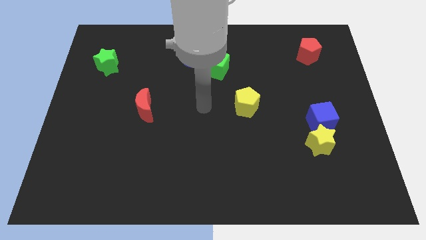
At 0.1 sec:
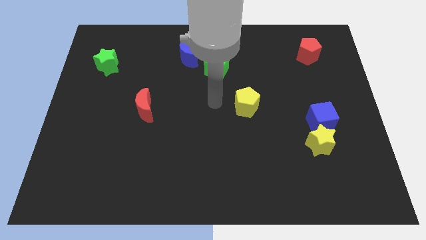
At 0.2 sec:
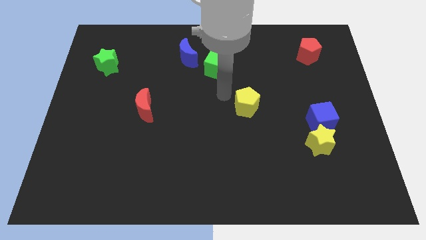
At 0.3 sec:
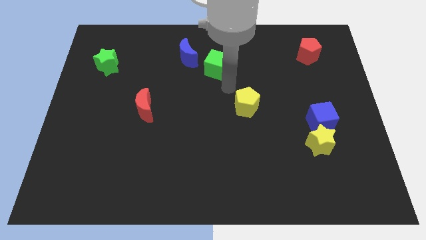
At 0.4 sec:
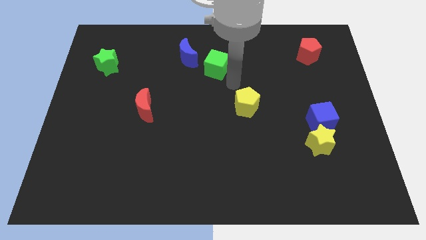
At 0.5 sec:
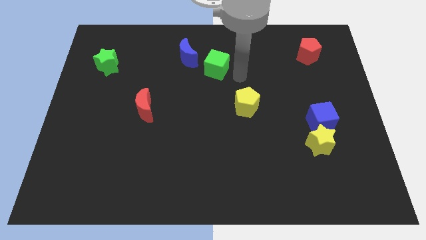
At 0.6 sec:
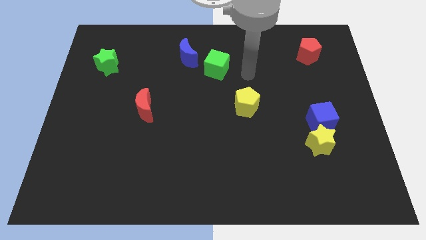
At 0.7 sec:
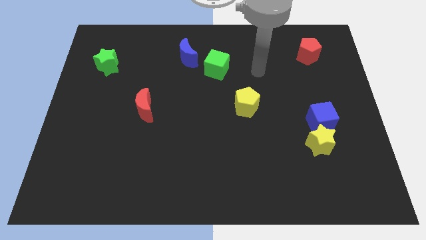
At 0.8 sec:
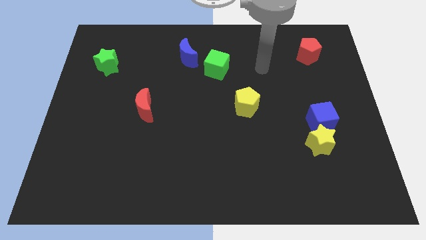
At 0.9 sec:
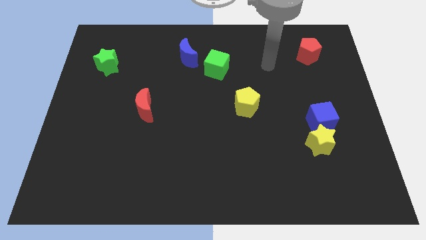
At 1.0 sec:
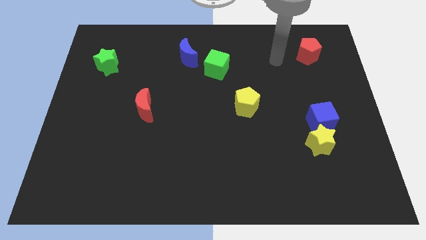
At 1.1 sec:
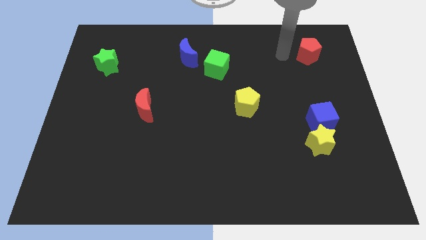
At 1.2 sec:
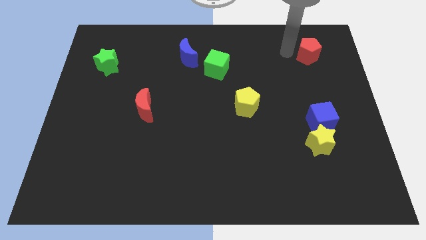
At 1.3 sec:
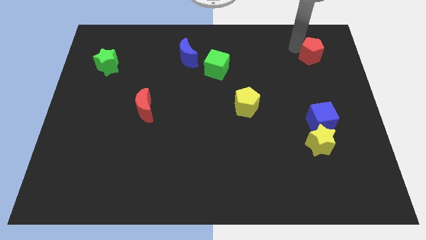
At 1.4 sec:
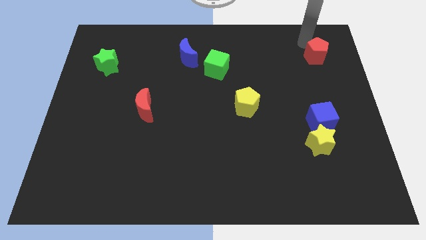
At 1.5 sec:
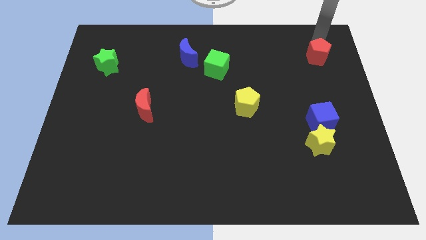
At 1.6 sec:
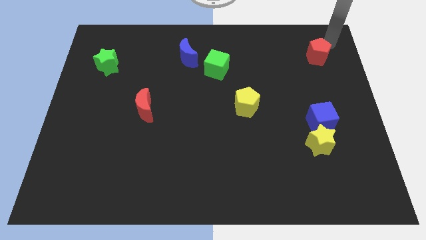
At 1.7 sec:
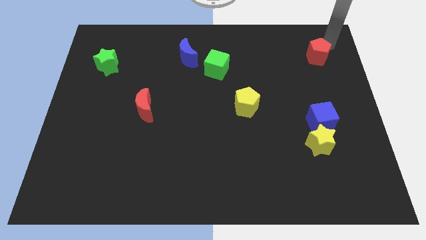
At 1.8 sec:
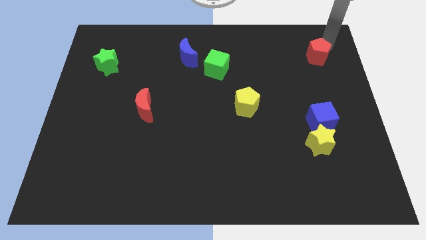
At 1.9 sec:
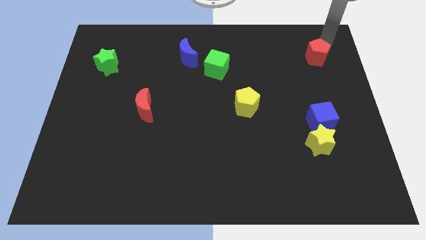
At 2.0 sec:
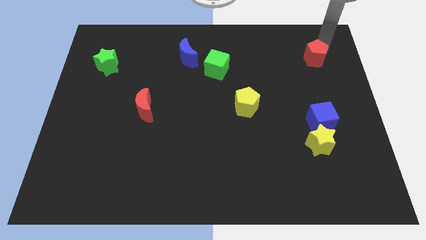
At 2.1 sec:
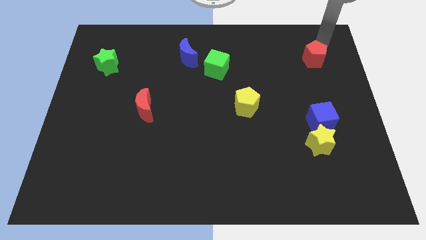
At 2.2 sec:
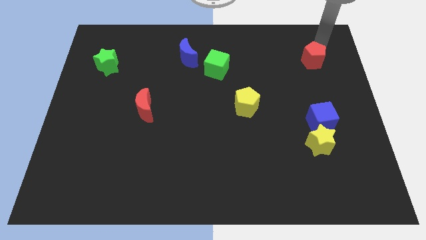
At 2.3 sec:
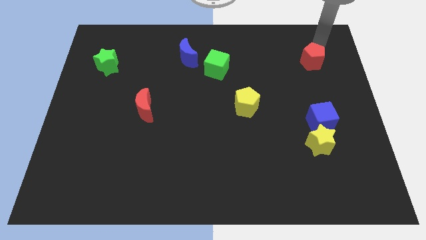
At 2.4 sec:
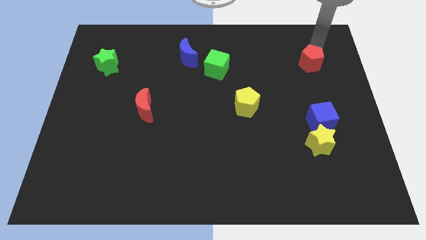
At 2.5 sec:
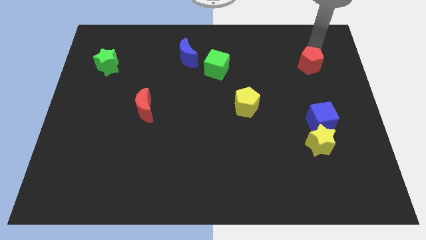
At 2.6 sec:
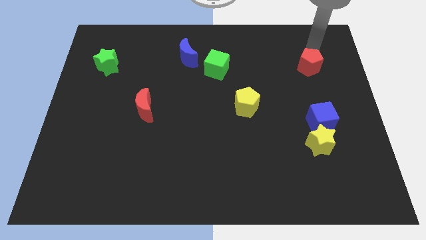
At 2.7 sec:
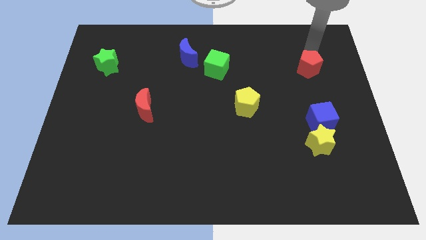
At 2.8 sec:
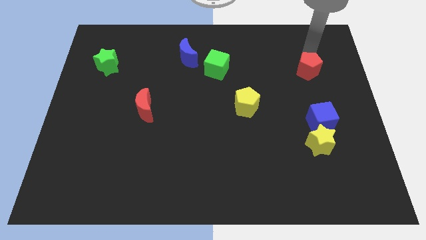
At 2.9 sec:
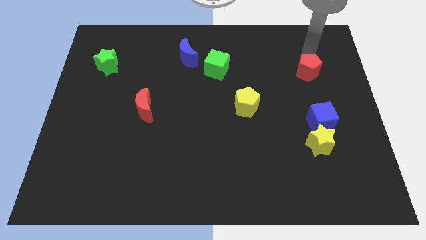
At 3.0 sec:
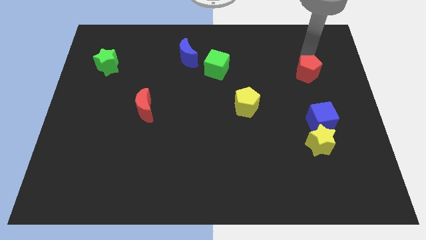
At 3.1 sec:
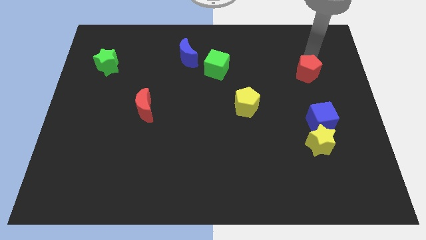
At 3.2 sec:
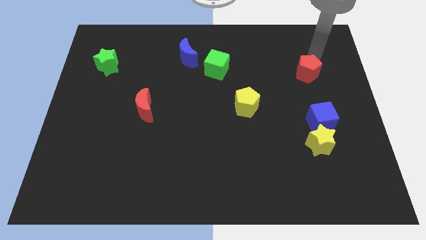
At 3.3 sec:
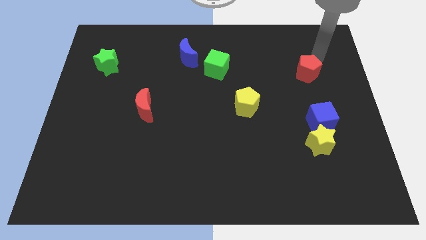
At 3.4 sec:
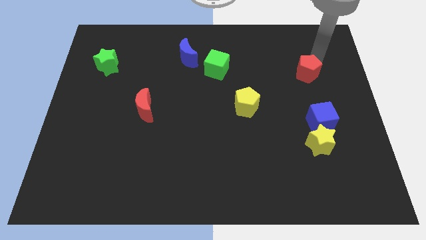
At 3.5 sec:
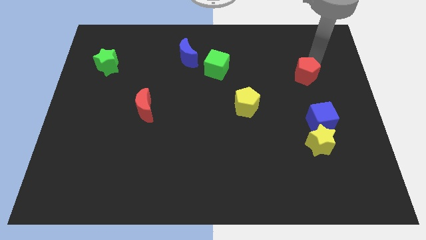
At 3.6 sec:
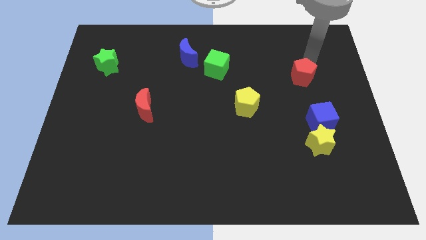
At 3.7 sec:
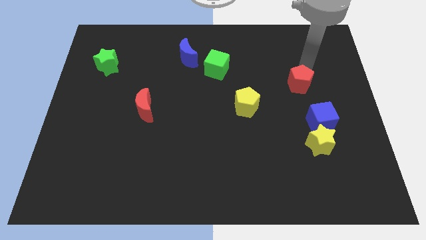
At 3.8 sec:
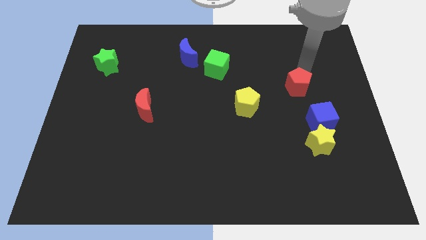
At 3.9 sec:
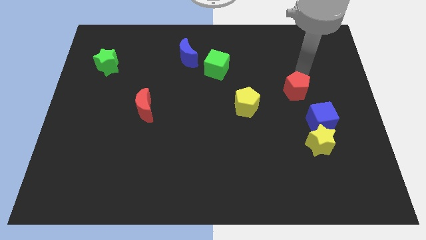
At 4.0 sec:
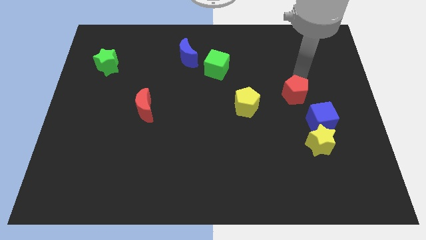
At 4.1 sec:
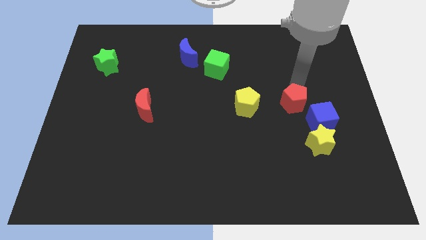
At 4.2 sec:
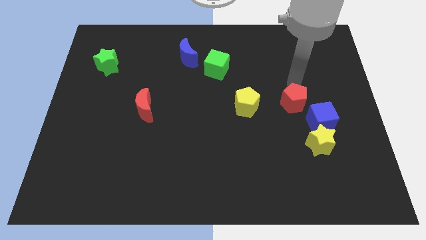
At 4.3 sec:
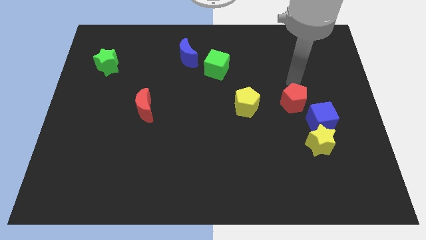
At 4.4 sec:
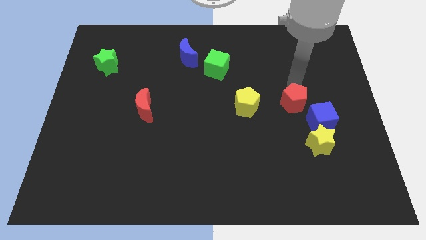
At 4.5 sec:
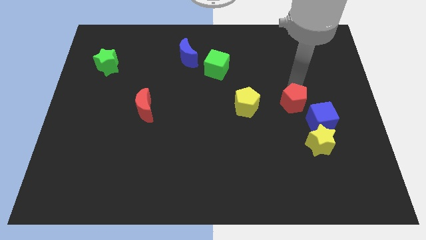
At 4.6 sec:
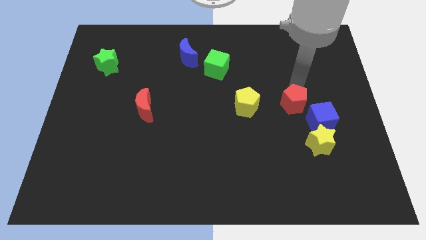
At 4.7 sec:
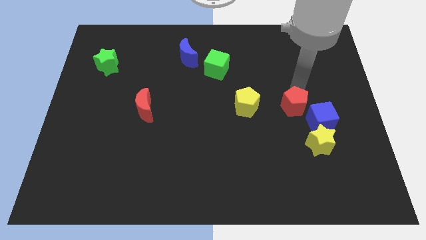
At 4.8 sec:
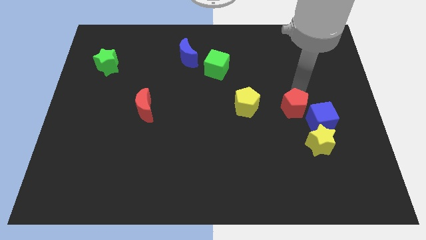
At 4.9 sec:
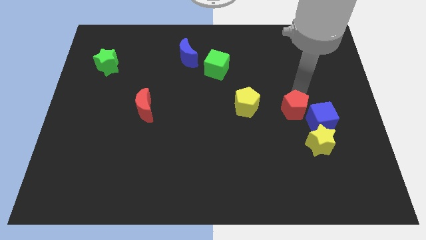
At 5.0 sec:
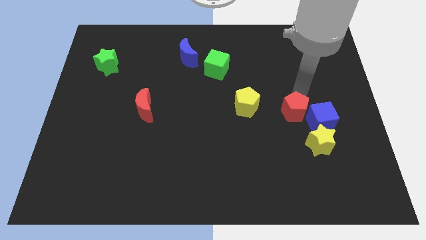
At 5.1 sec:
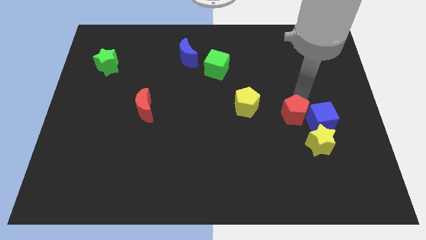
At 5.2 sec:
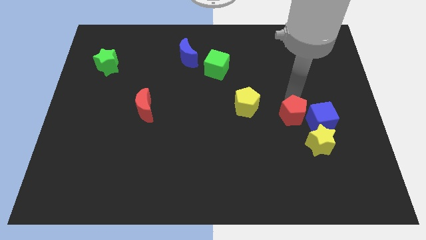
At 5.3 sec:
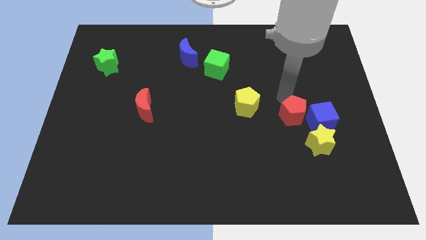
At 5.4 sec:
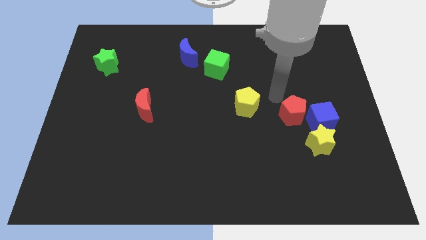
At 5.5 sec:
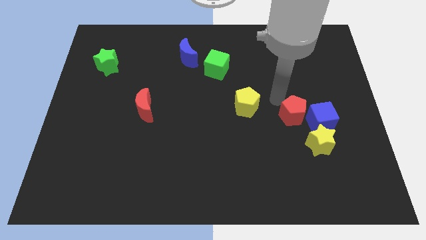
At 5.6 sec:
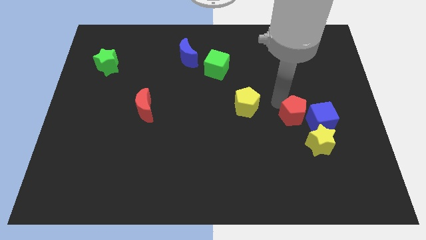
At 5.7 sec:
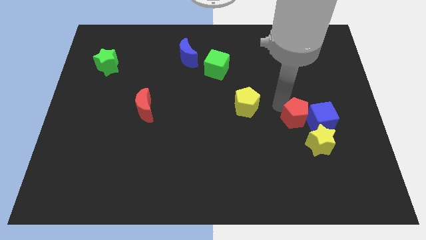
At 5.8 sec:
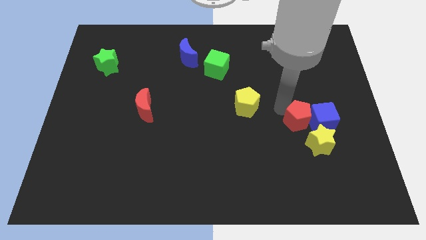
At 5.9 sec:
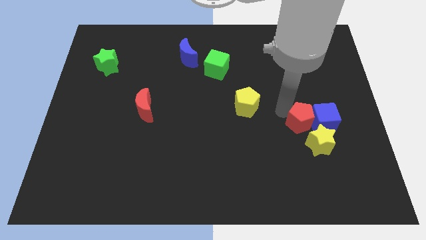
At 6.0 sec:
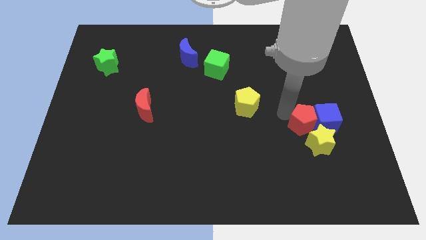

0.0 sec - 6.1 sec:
push the red pentagon to the yellow star
